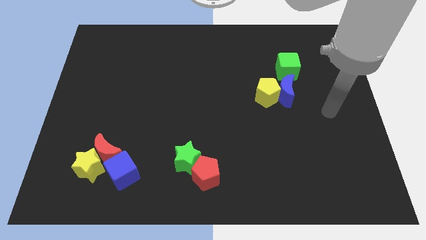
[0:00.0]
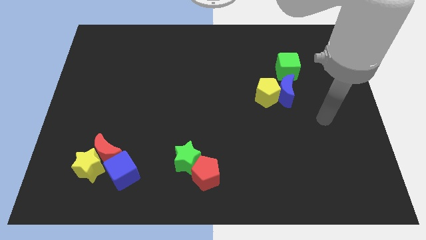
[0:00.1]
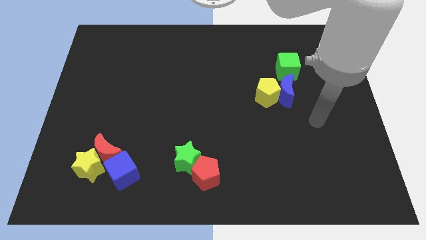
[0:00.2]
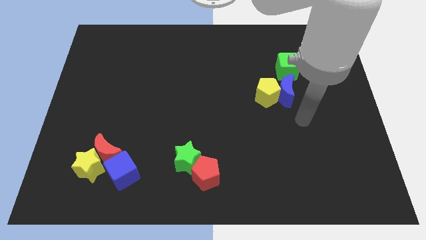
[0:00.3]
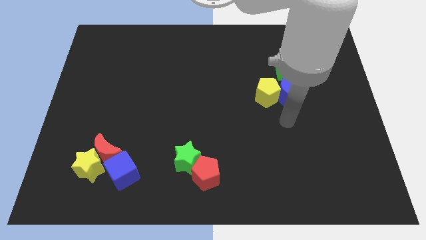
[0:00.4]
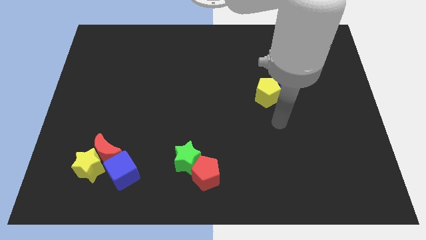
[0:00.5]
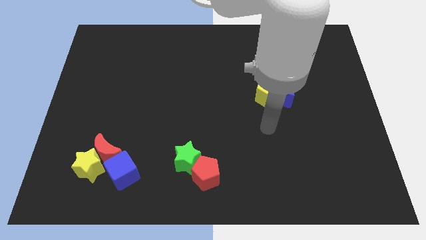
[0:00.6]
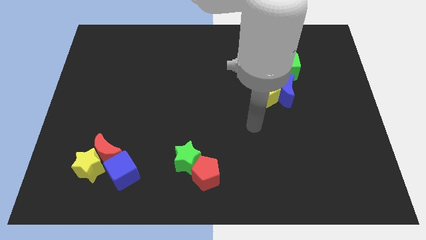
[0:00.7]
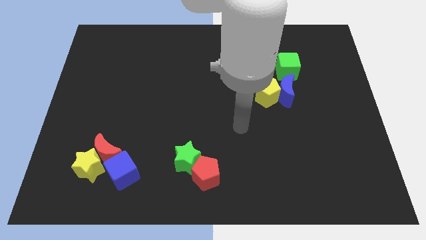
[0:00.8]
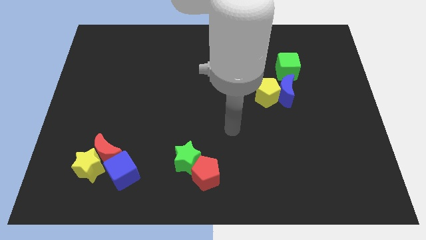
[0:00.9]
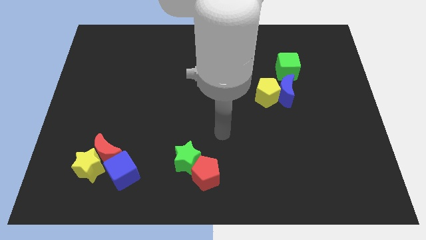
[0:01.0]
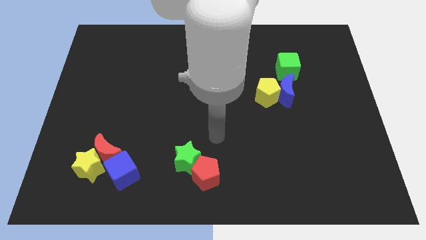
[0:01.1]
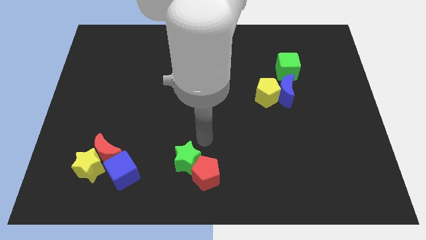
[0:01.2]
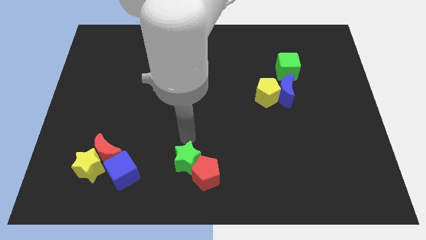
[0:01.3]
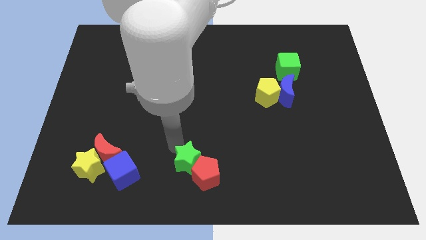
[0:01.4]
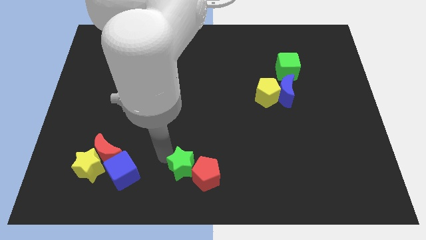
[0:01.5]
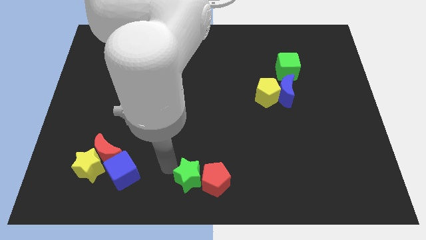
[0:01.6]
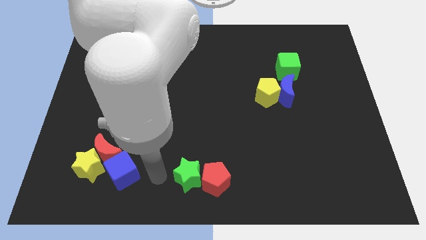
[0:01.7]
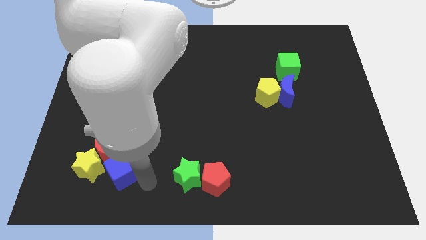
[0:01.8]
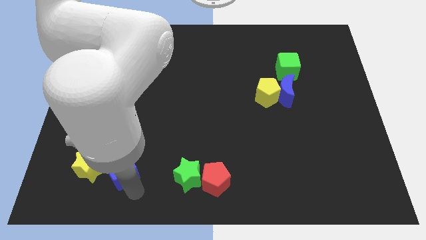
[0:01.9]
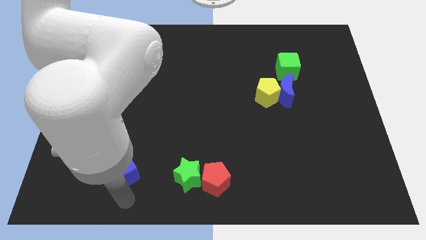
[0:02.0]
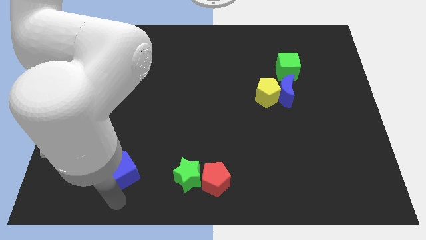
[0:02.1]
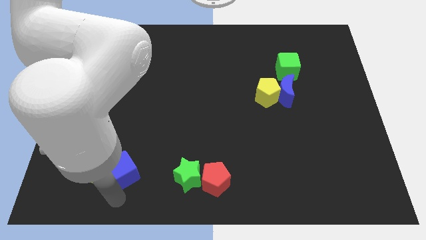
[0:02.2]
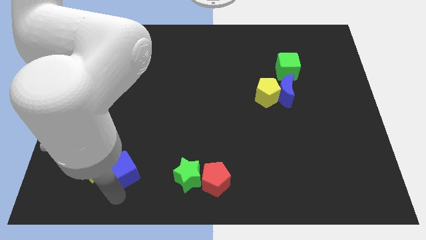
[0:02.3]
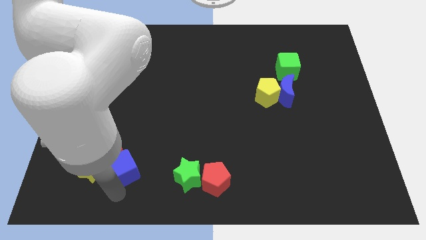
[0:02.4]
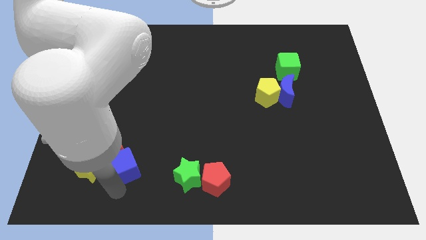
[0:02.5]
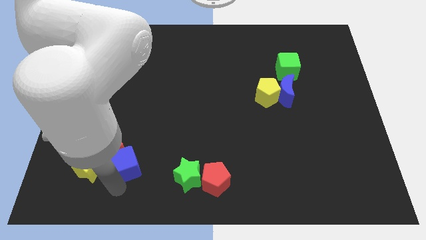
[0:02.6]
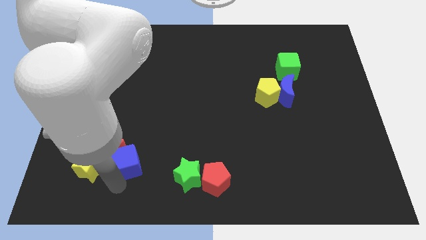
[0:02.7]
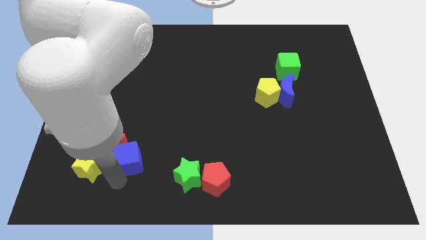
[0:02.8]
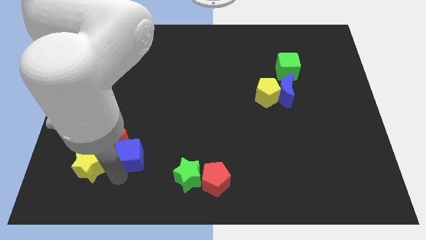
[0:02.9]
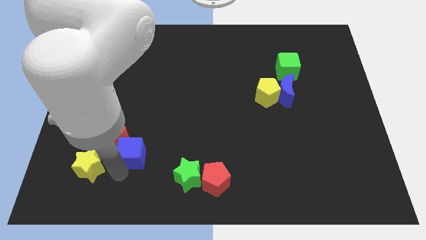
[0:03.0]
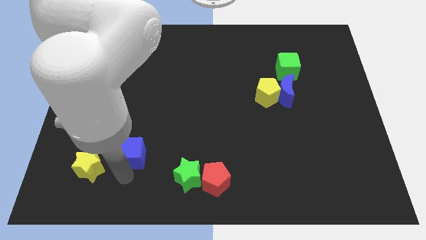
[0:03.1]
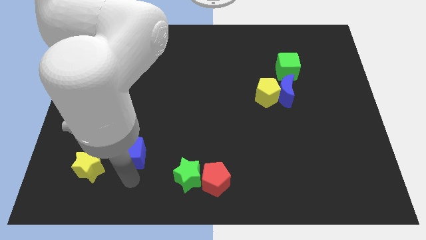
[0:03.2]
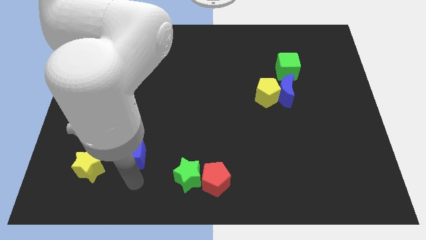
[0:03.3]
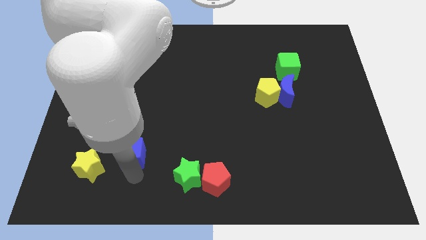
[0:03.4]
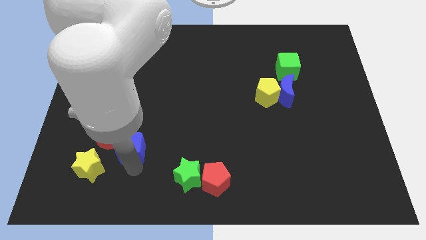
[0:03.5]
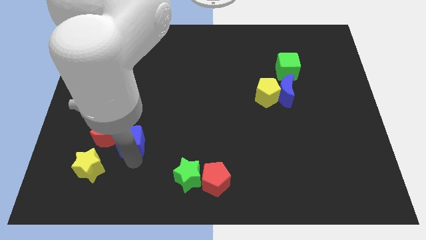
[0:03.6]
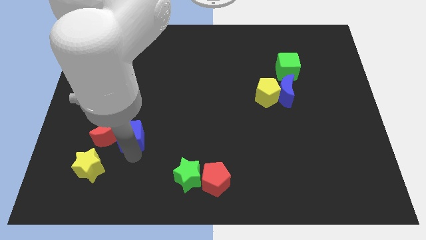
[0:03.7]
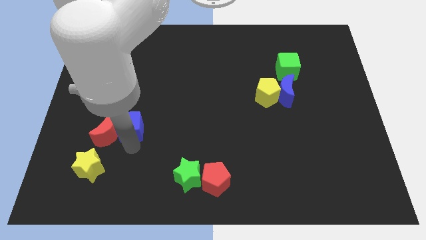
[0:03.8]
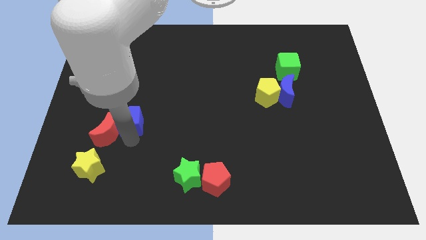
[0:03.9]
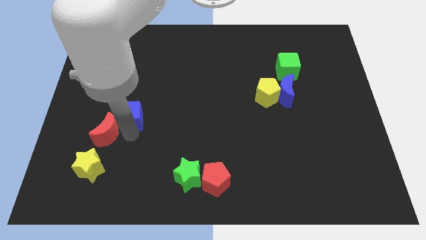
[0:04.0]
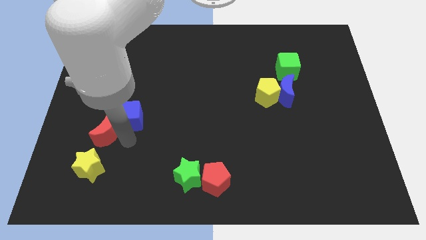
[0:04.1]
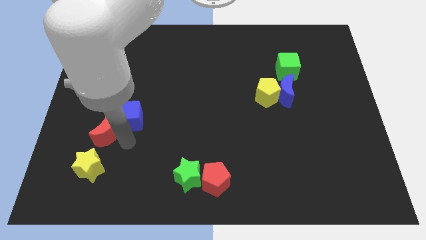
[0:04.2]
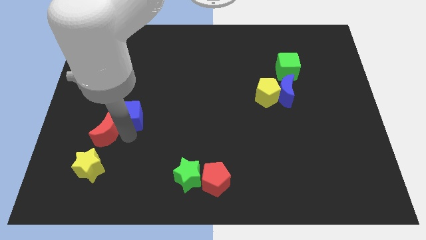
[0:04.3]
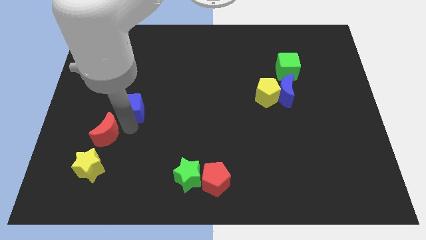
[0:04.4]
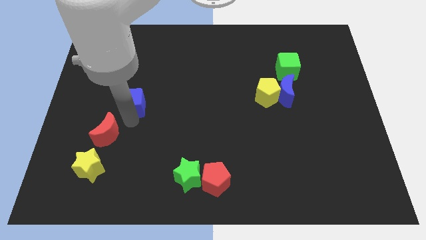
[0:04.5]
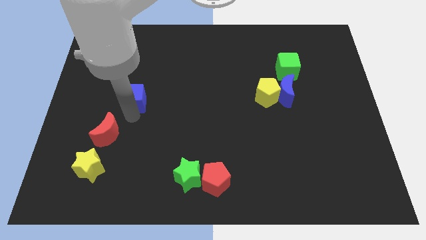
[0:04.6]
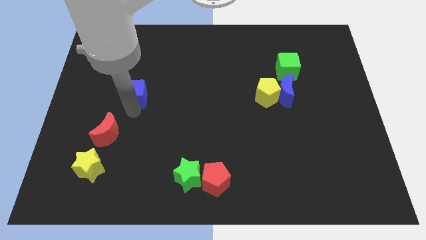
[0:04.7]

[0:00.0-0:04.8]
move the blue cube upwards

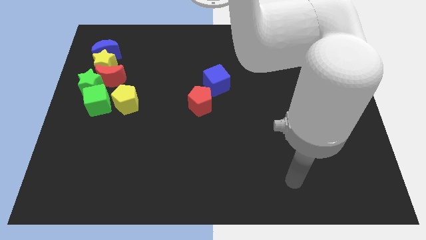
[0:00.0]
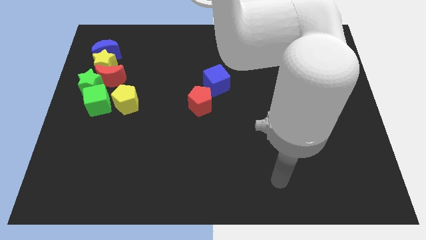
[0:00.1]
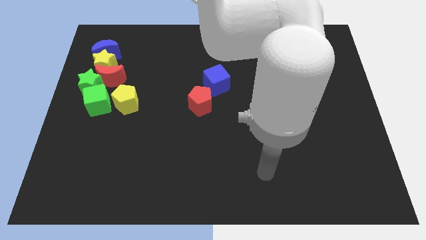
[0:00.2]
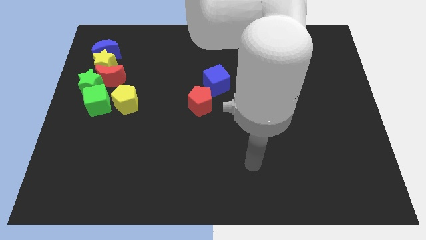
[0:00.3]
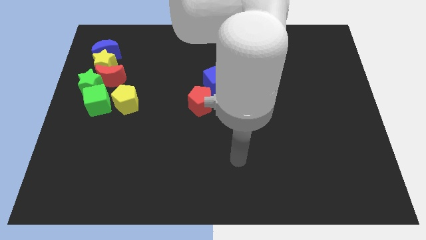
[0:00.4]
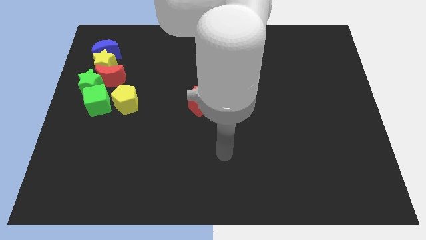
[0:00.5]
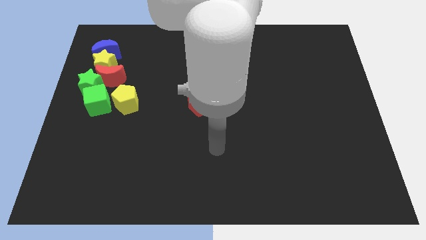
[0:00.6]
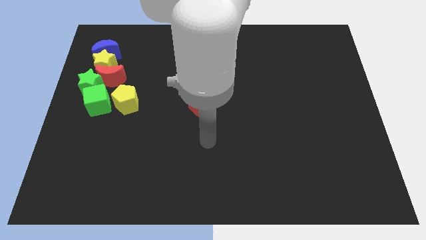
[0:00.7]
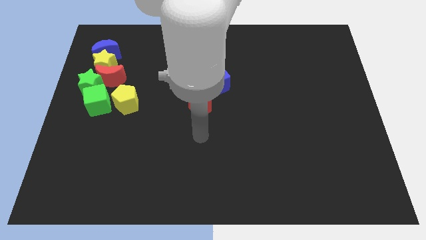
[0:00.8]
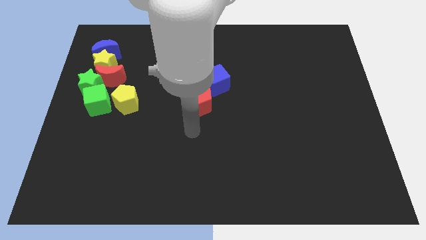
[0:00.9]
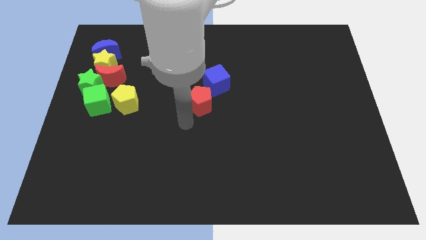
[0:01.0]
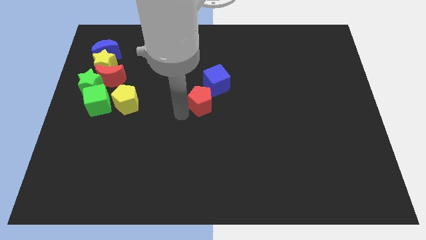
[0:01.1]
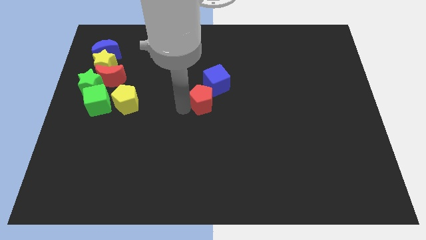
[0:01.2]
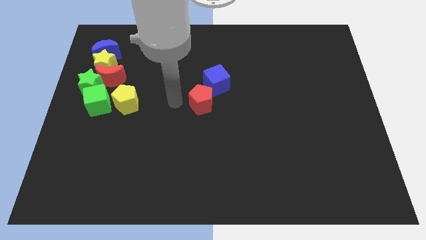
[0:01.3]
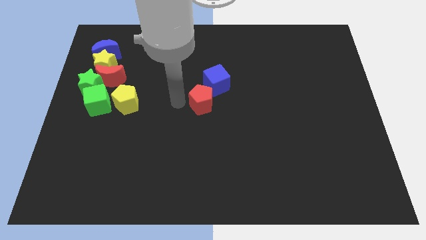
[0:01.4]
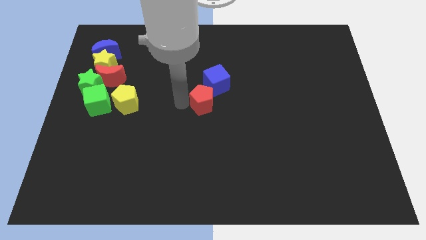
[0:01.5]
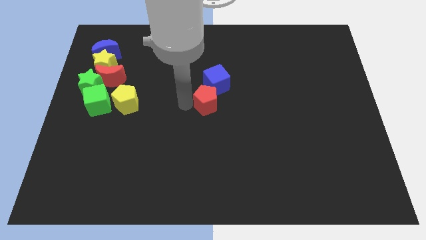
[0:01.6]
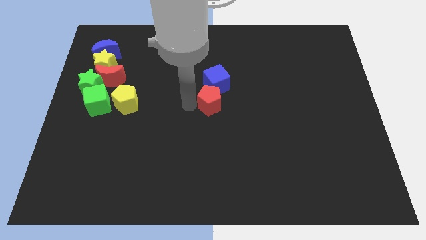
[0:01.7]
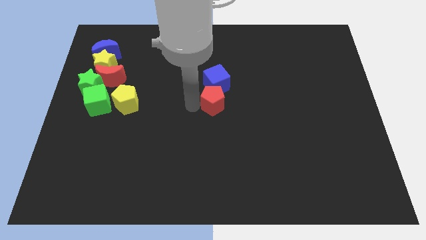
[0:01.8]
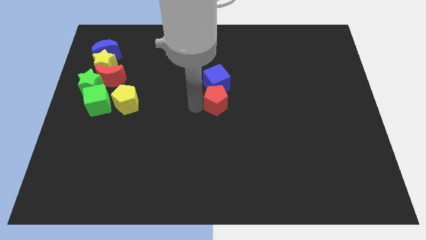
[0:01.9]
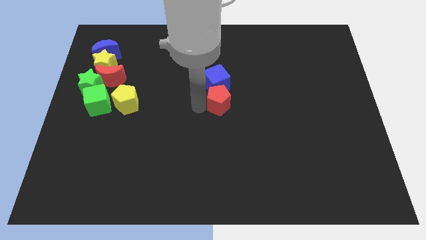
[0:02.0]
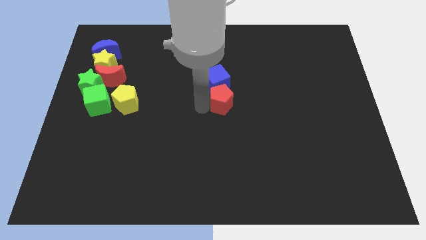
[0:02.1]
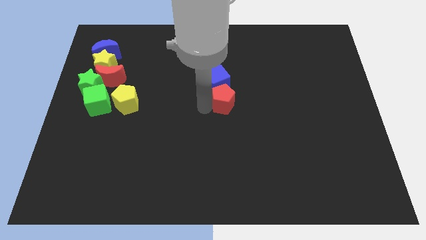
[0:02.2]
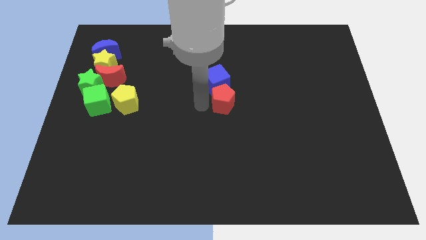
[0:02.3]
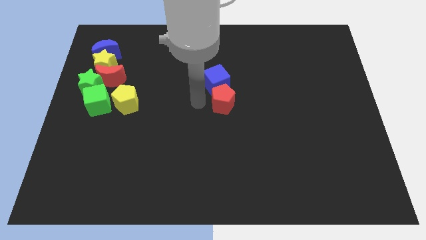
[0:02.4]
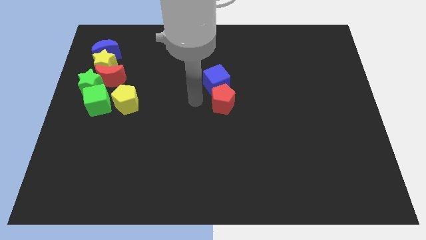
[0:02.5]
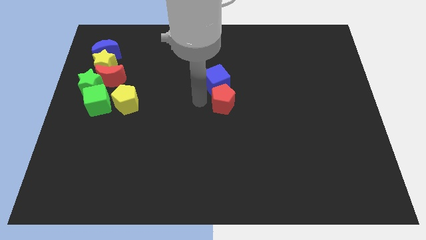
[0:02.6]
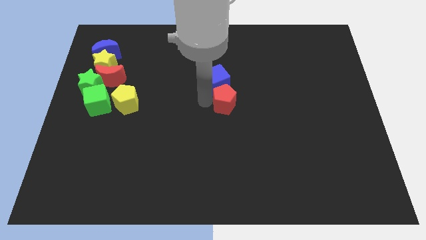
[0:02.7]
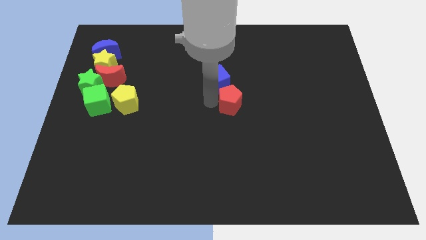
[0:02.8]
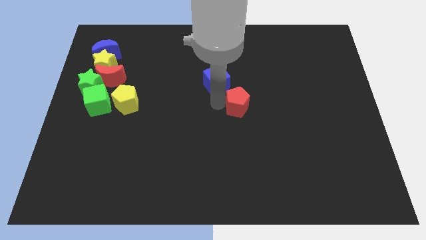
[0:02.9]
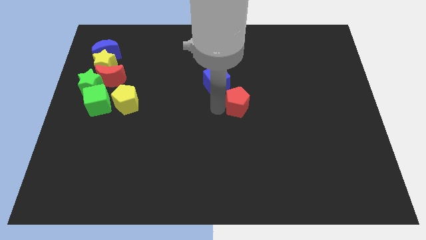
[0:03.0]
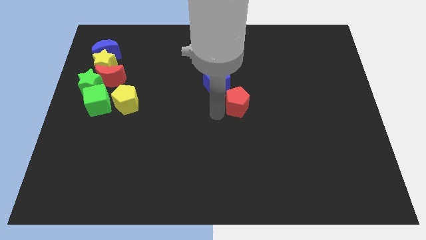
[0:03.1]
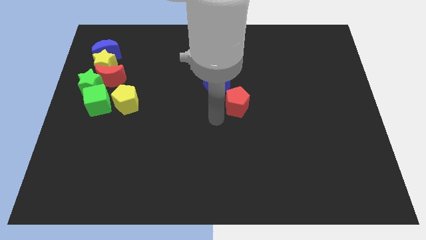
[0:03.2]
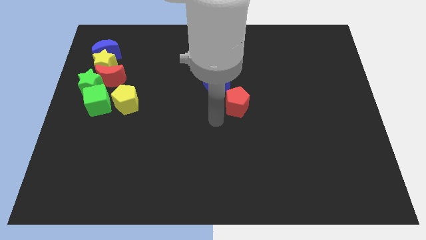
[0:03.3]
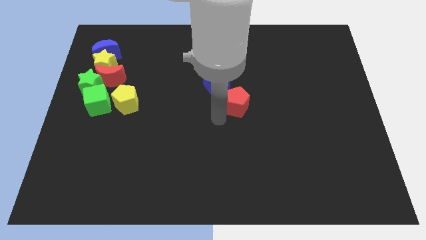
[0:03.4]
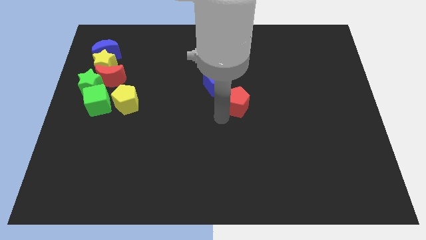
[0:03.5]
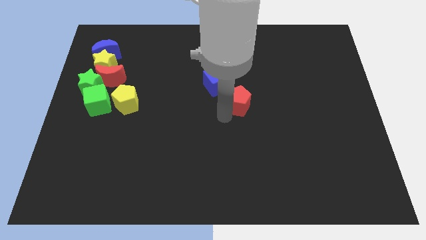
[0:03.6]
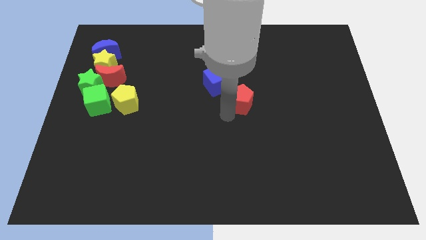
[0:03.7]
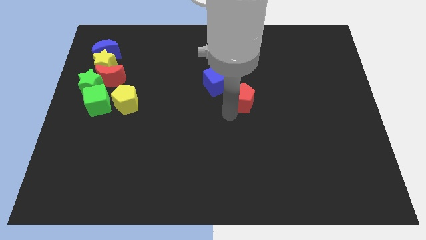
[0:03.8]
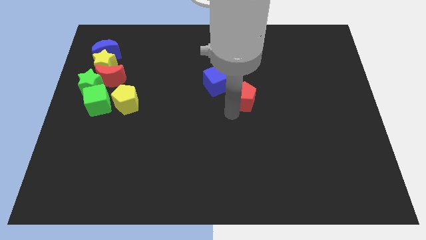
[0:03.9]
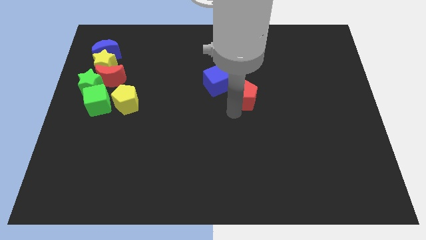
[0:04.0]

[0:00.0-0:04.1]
slide the red pentagon up and right diagonally a bit
